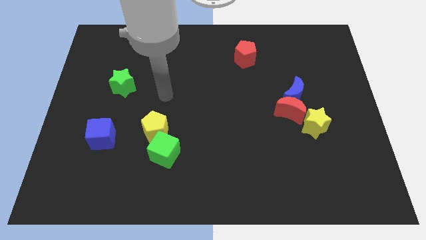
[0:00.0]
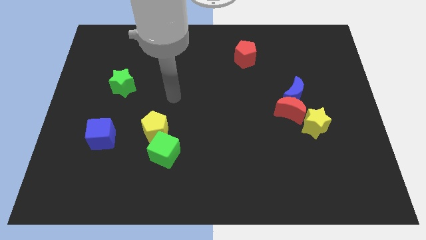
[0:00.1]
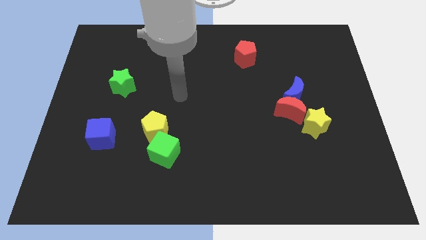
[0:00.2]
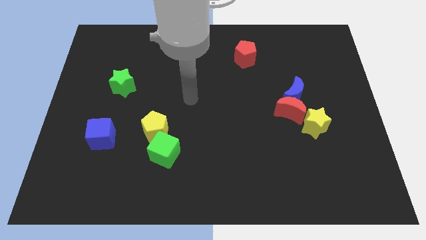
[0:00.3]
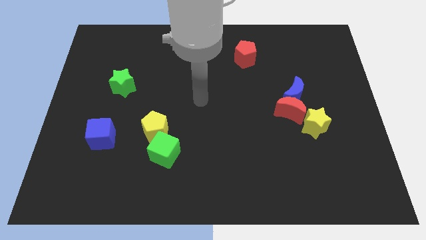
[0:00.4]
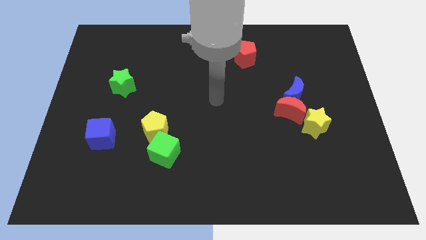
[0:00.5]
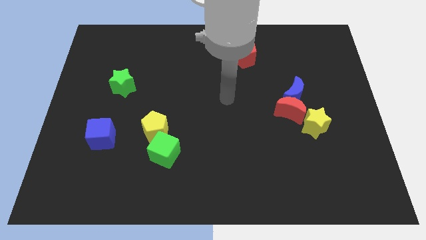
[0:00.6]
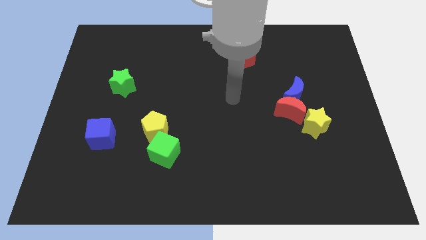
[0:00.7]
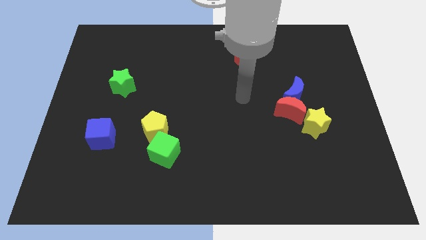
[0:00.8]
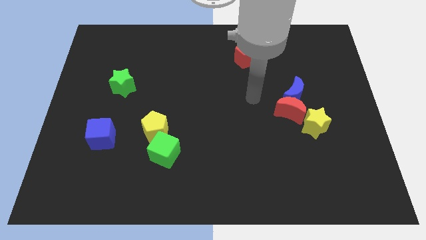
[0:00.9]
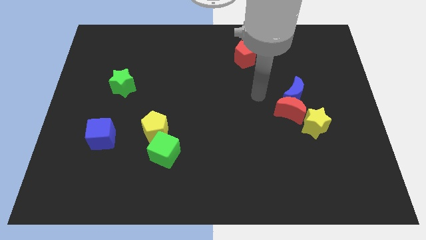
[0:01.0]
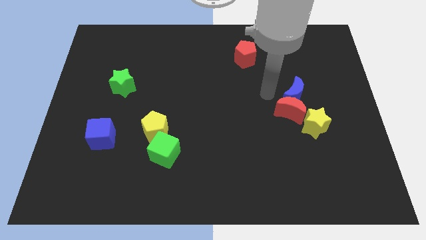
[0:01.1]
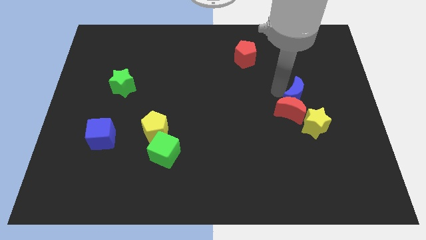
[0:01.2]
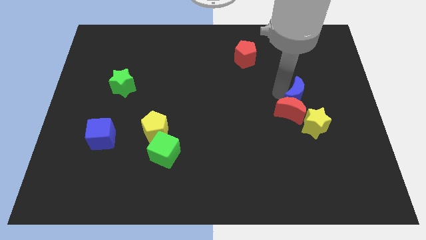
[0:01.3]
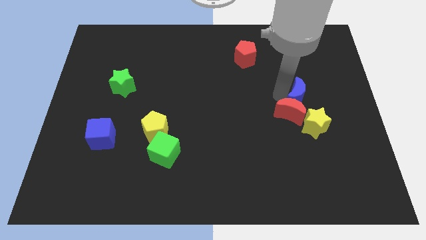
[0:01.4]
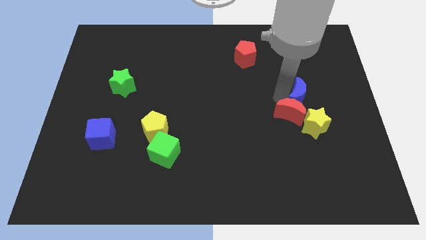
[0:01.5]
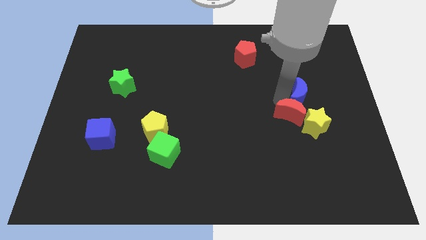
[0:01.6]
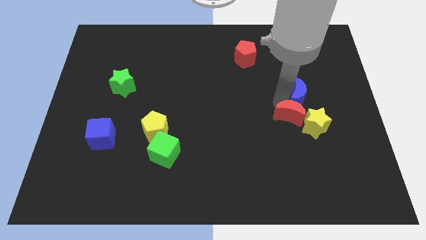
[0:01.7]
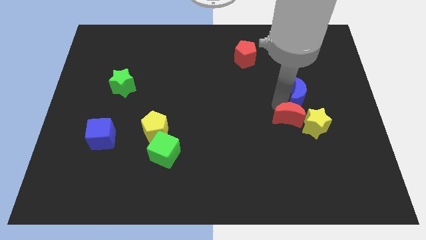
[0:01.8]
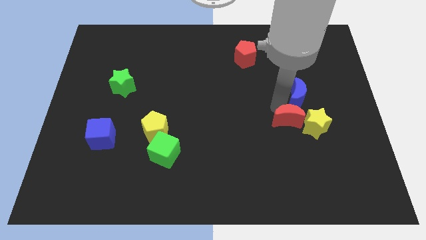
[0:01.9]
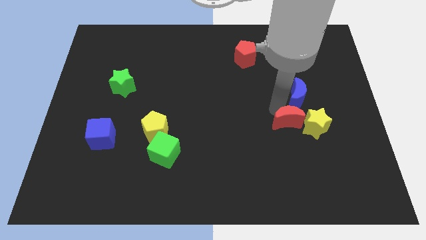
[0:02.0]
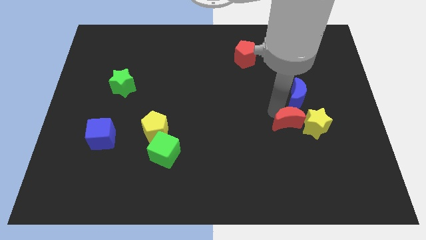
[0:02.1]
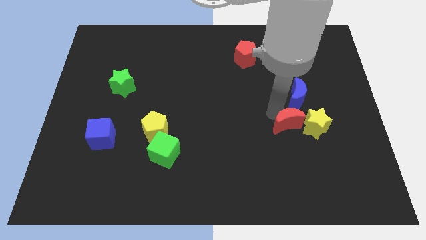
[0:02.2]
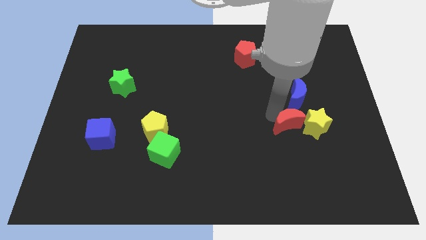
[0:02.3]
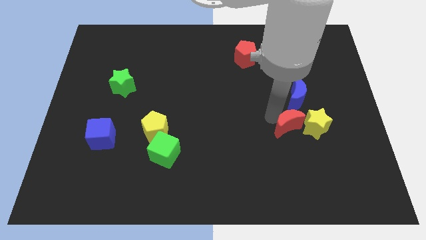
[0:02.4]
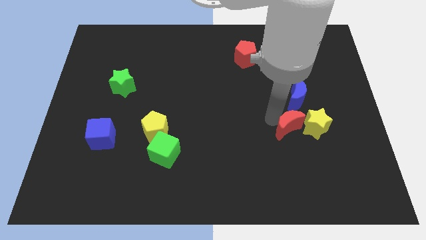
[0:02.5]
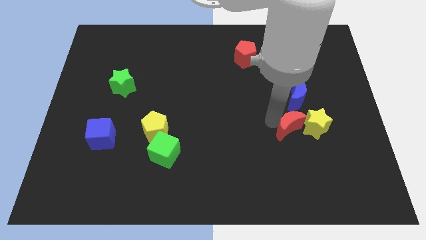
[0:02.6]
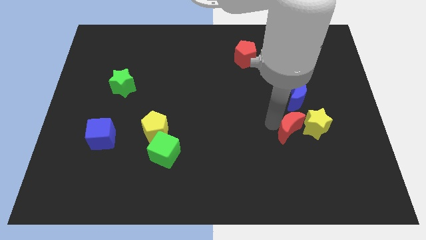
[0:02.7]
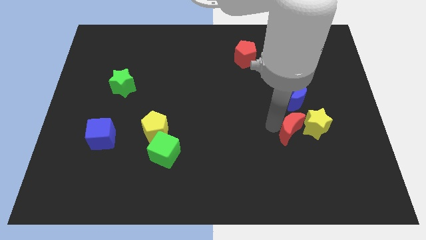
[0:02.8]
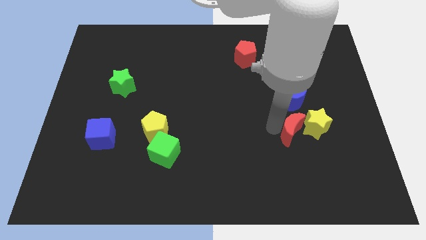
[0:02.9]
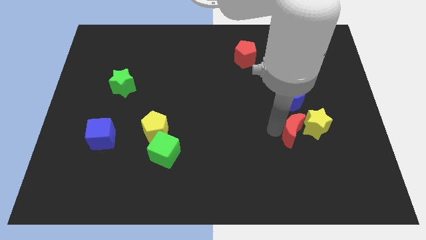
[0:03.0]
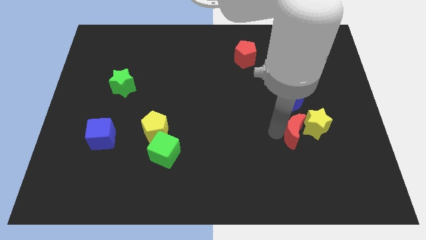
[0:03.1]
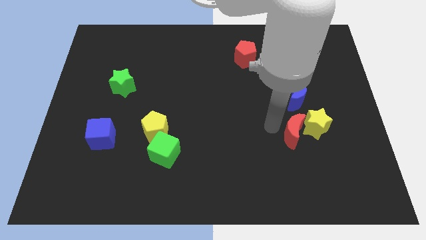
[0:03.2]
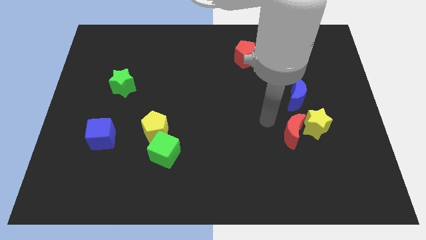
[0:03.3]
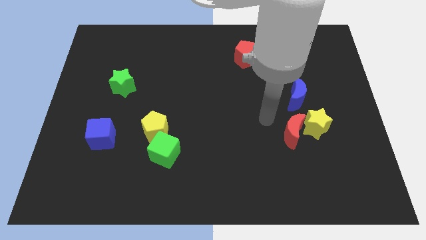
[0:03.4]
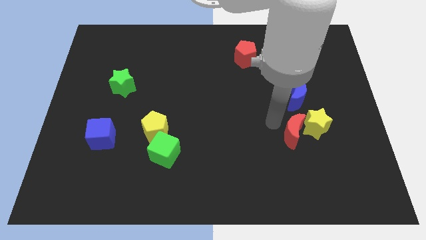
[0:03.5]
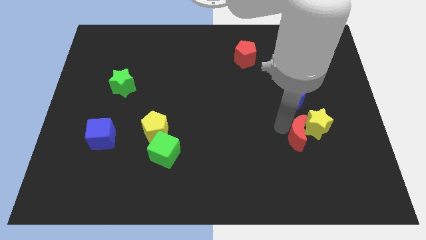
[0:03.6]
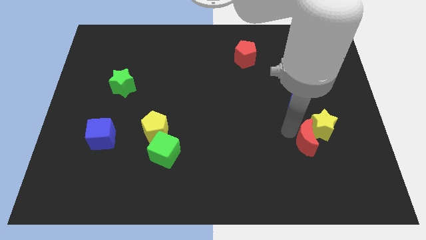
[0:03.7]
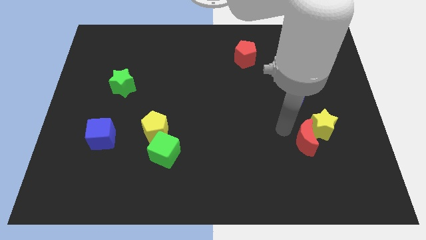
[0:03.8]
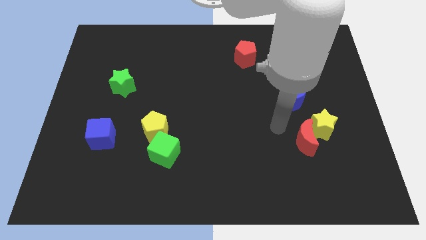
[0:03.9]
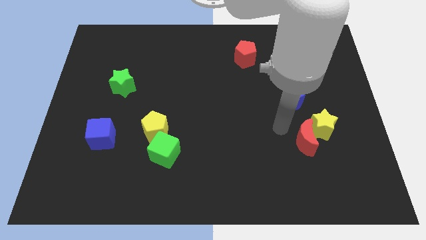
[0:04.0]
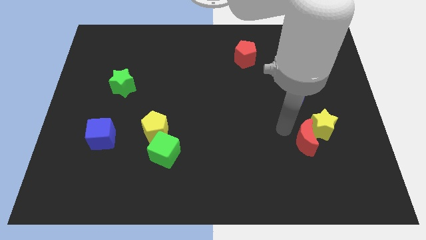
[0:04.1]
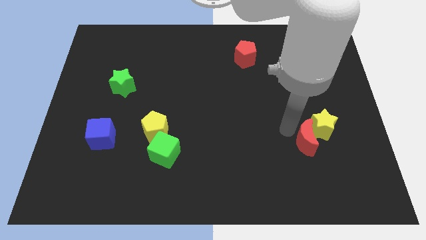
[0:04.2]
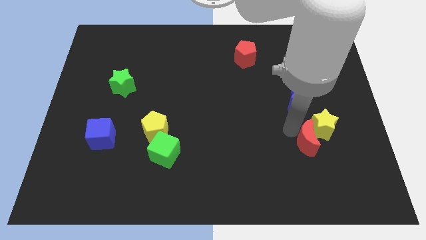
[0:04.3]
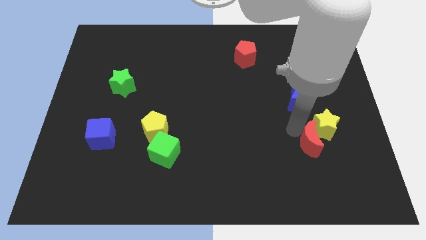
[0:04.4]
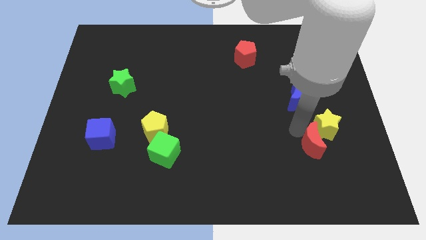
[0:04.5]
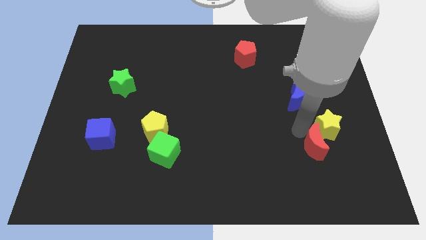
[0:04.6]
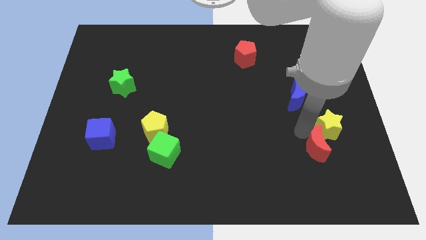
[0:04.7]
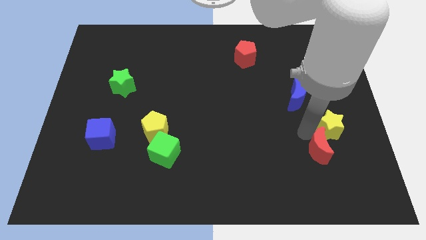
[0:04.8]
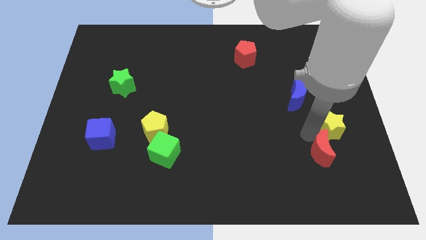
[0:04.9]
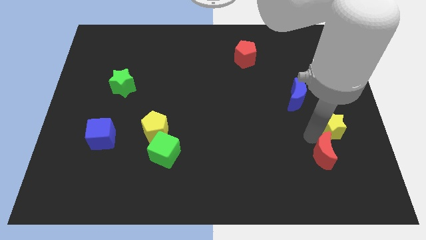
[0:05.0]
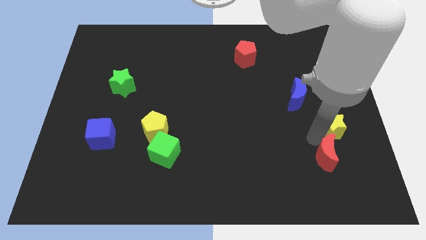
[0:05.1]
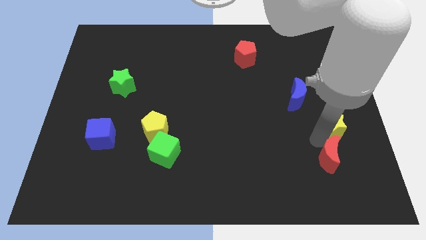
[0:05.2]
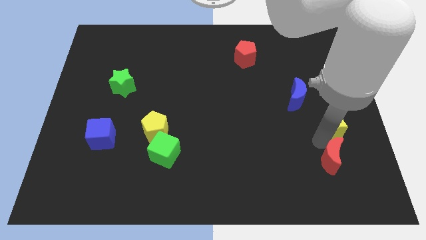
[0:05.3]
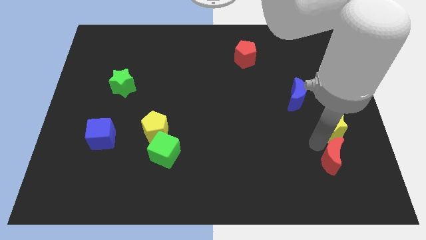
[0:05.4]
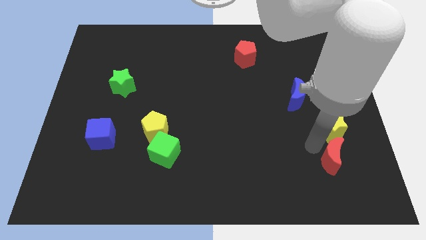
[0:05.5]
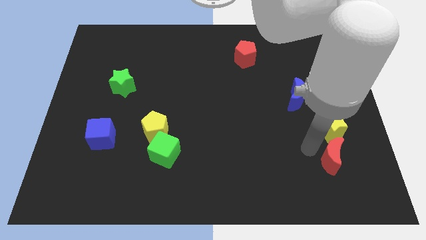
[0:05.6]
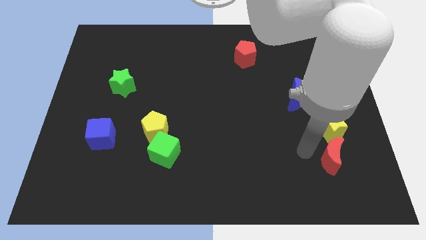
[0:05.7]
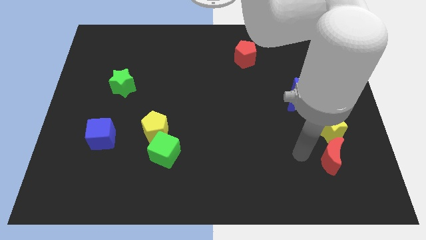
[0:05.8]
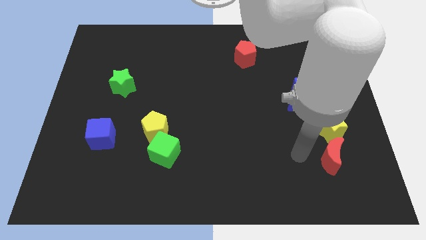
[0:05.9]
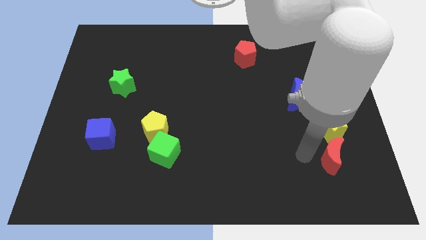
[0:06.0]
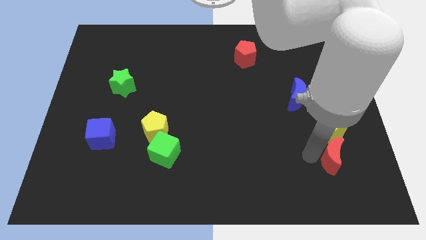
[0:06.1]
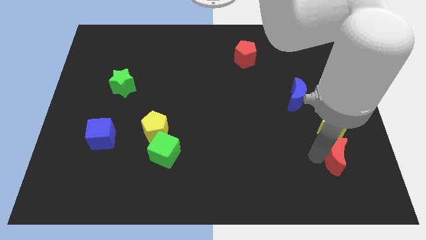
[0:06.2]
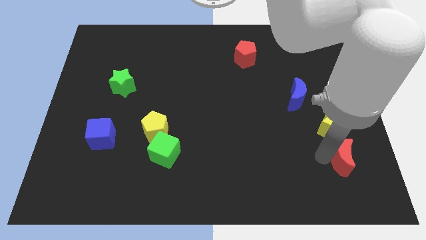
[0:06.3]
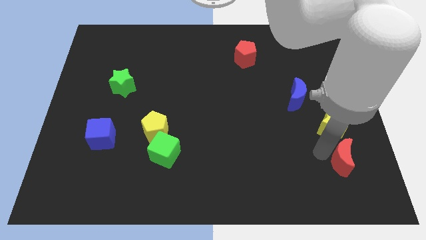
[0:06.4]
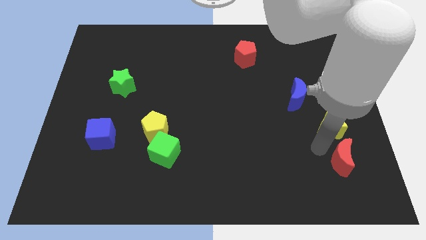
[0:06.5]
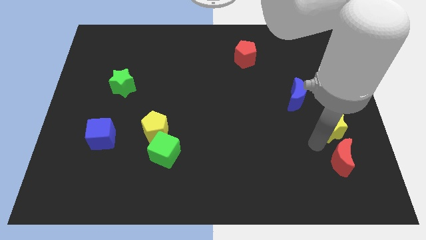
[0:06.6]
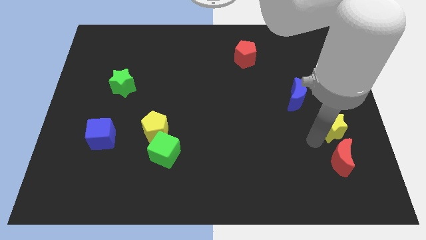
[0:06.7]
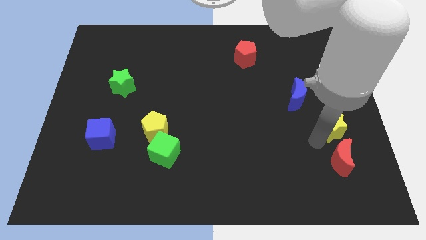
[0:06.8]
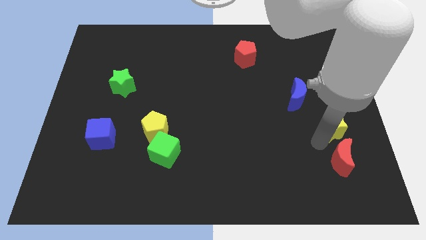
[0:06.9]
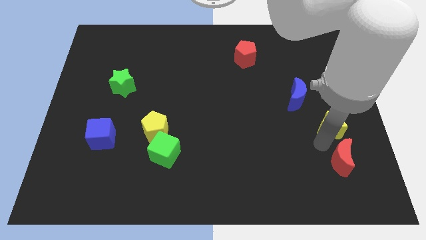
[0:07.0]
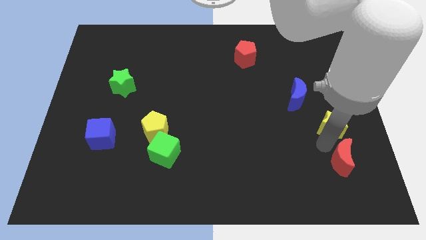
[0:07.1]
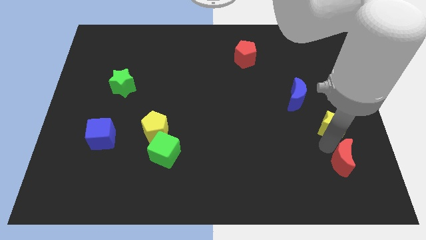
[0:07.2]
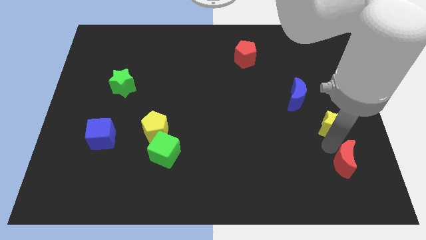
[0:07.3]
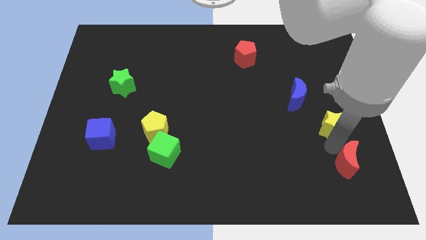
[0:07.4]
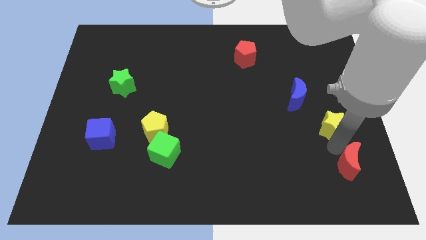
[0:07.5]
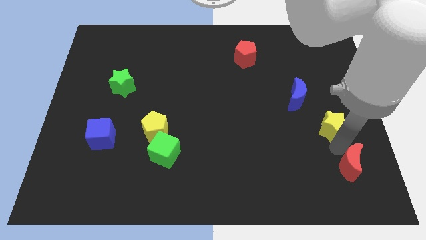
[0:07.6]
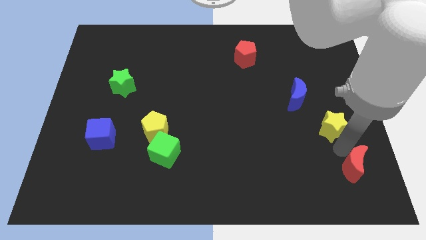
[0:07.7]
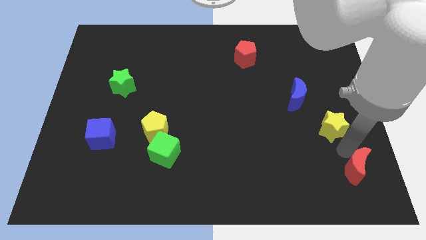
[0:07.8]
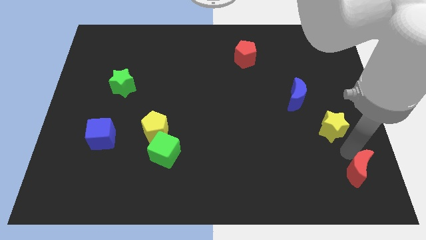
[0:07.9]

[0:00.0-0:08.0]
push the red moon to the bottom right of the board
